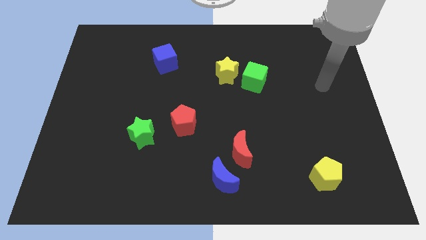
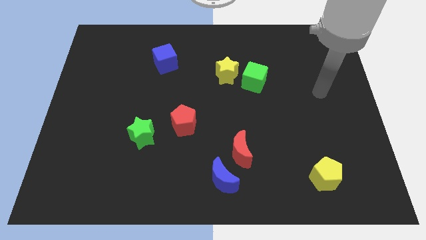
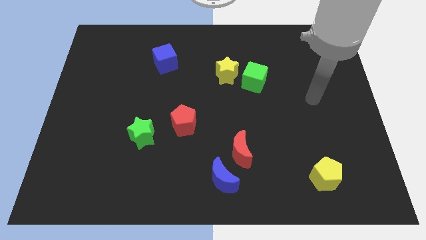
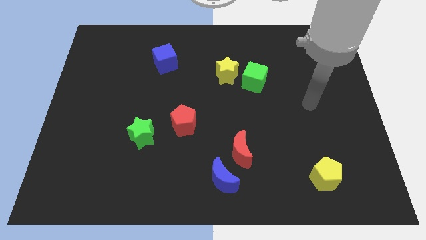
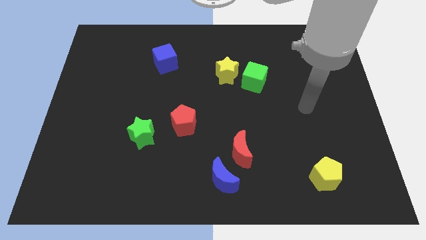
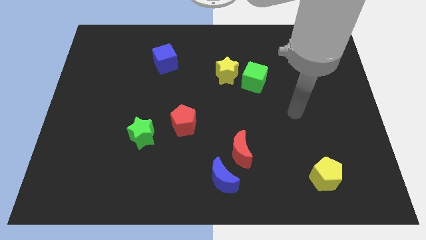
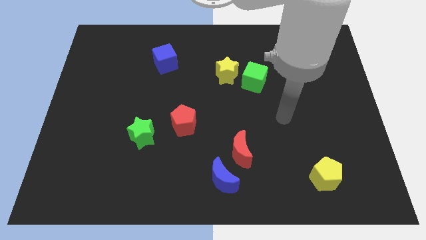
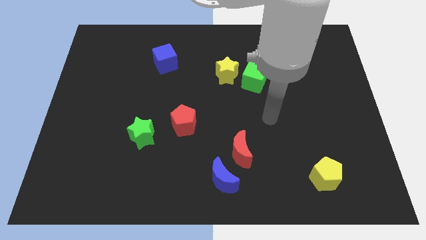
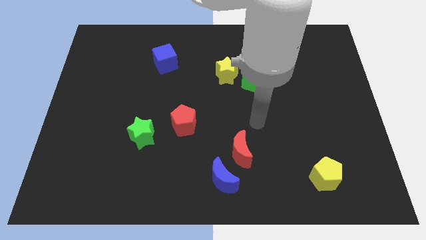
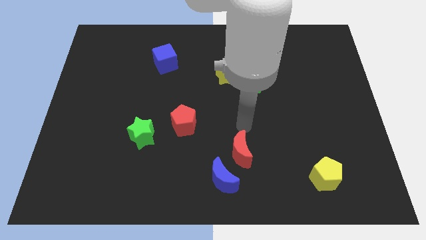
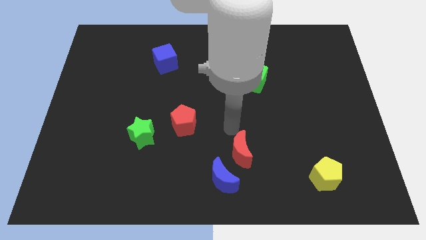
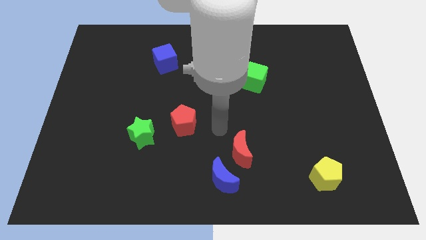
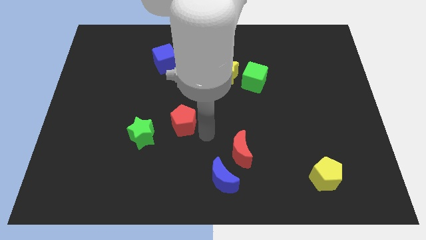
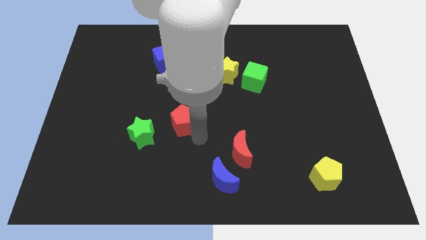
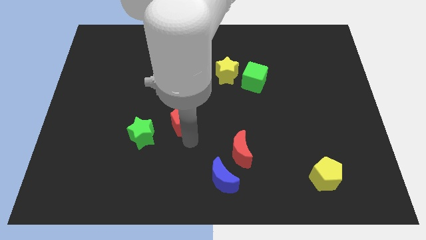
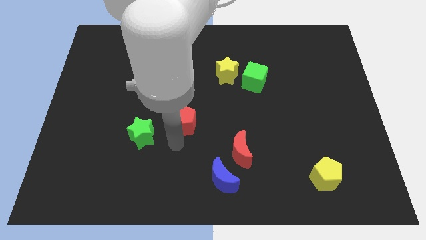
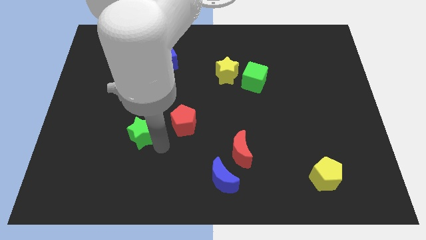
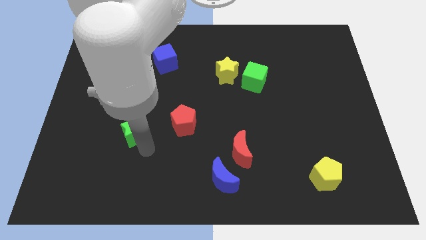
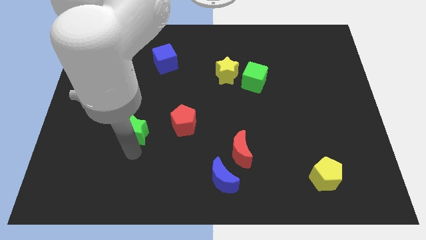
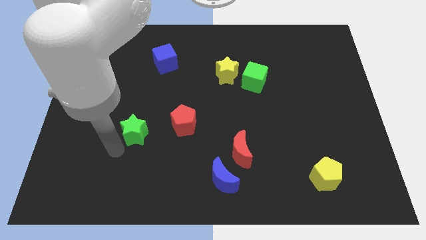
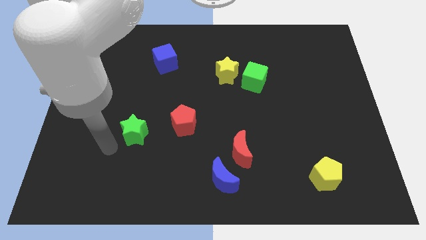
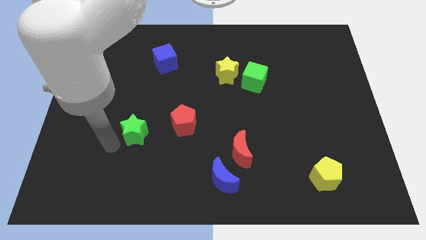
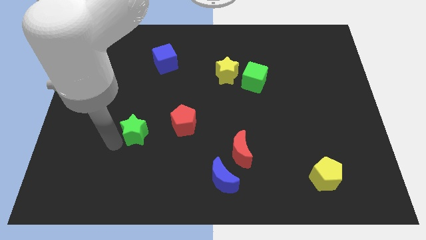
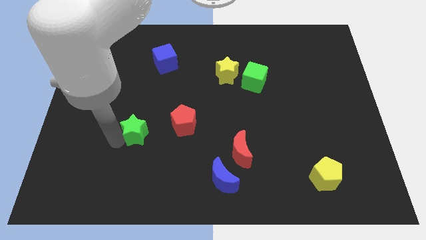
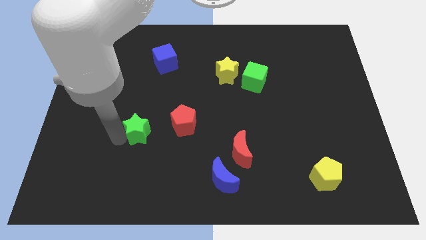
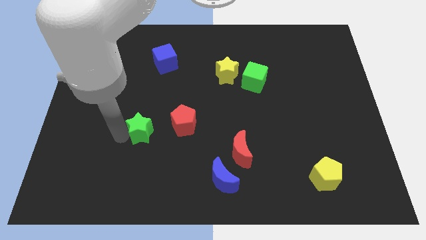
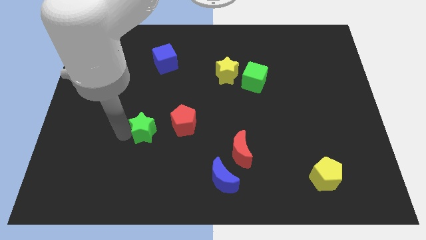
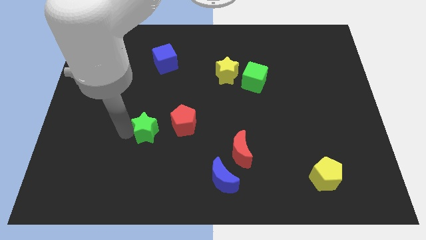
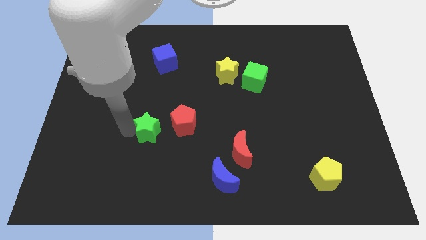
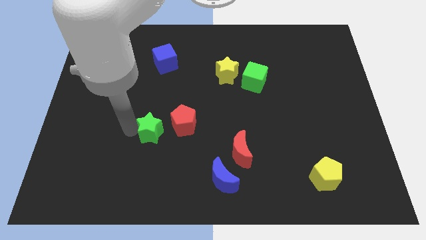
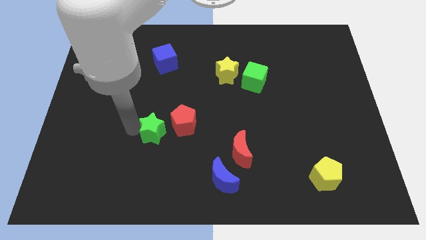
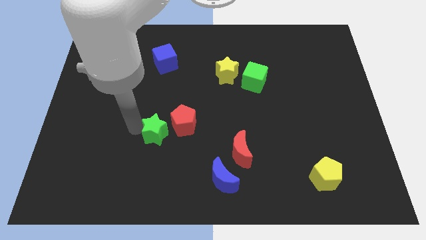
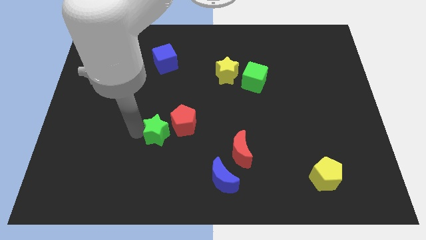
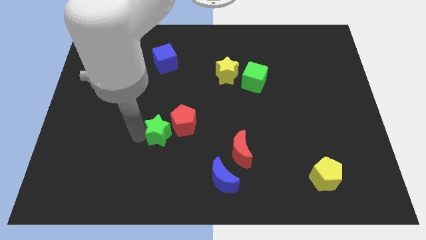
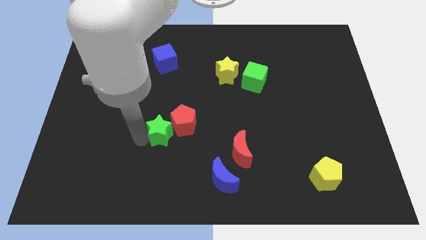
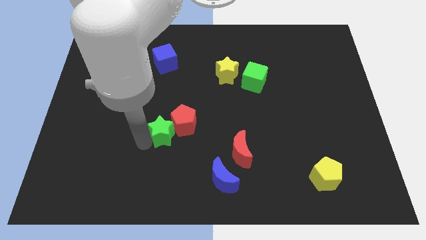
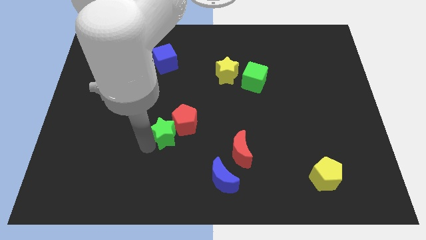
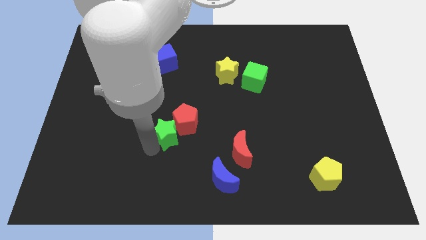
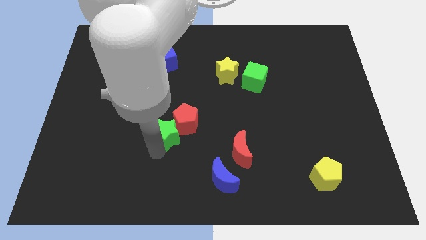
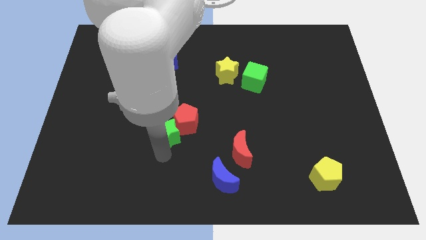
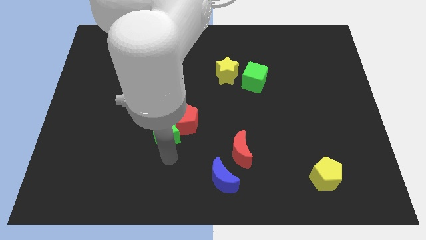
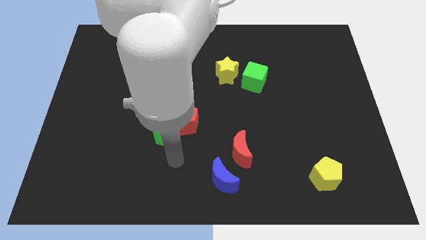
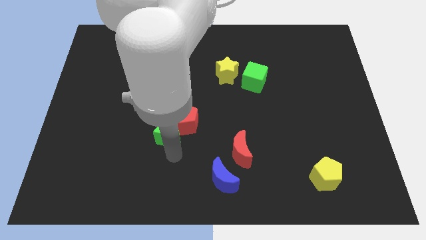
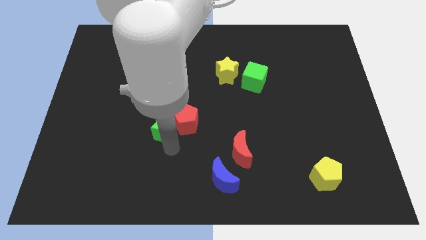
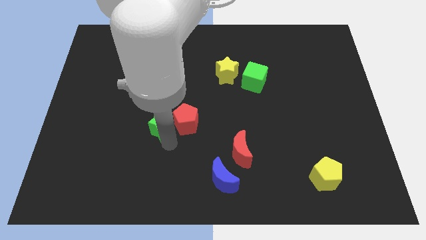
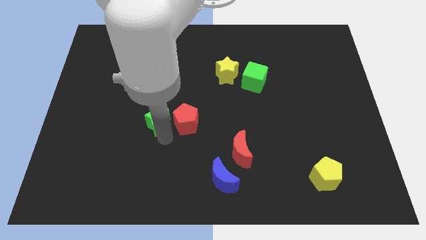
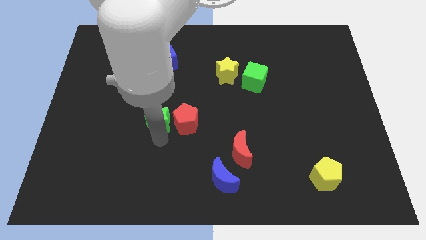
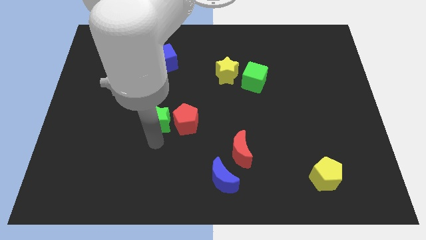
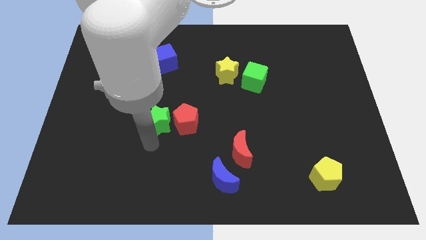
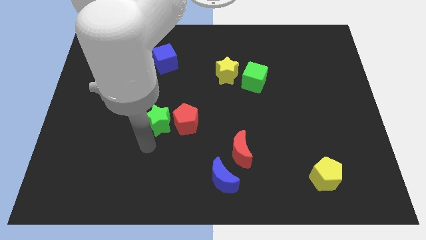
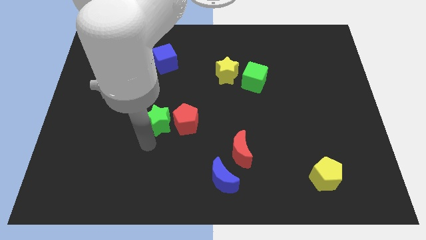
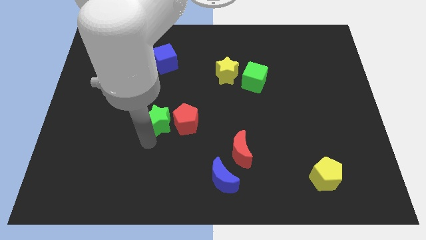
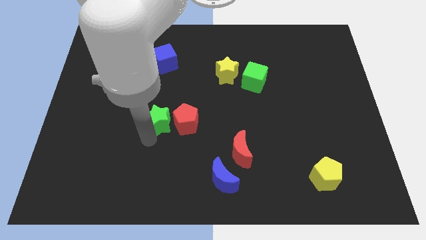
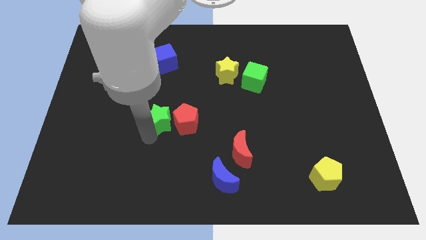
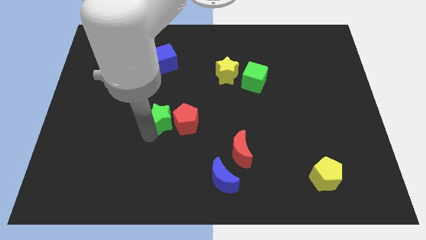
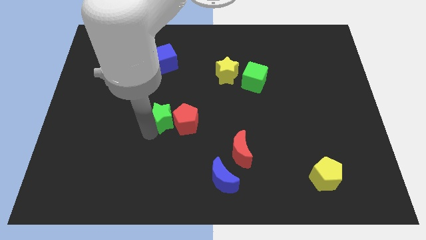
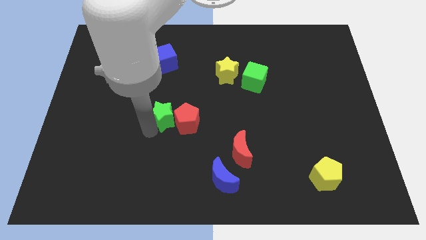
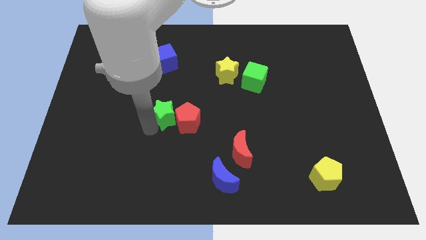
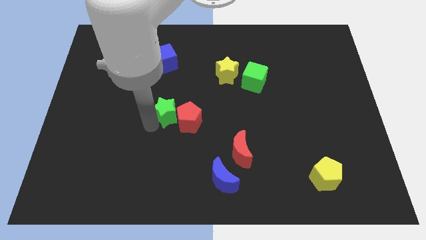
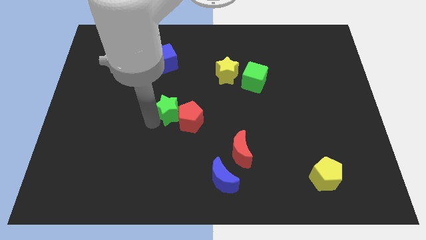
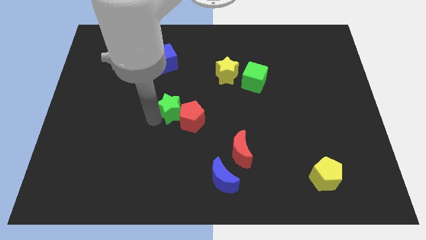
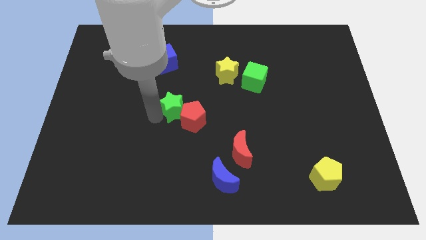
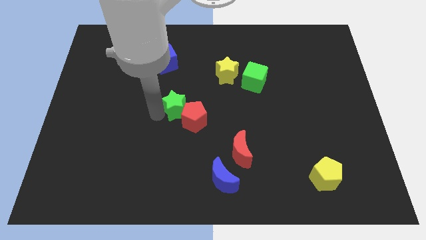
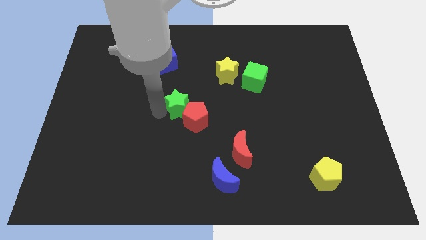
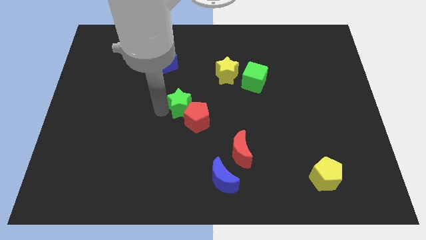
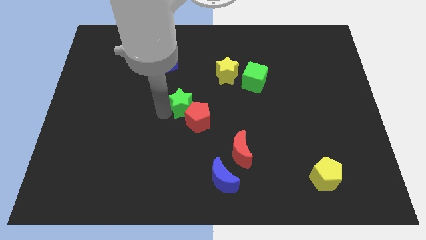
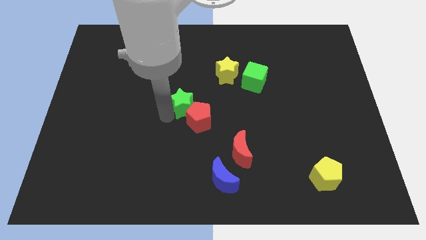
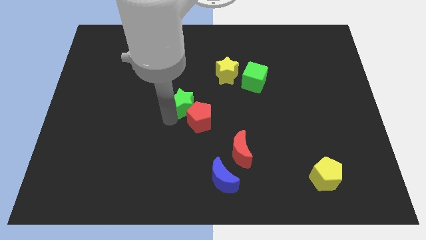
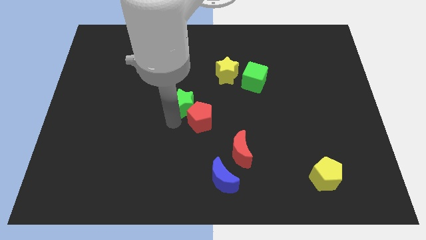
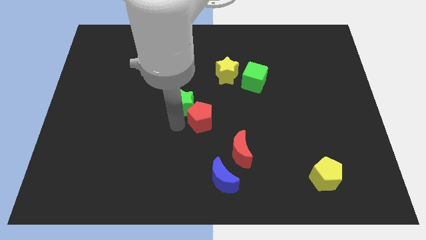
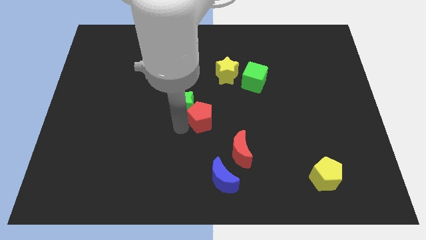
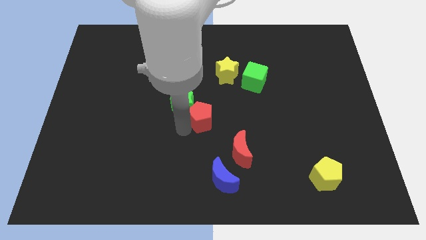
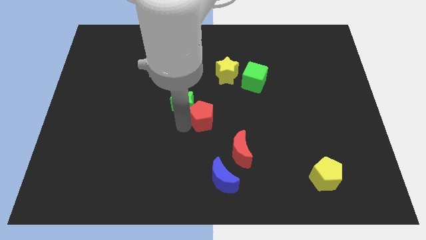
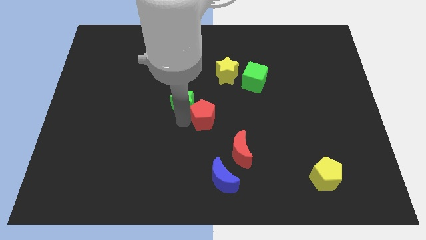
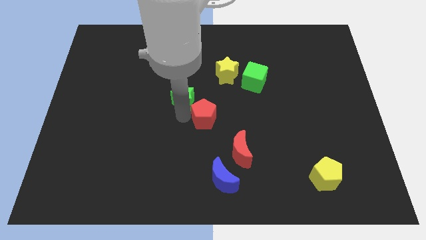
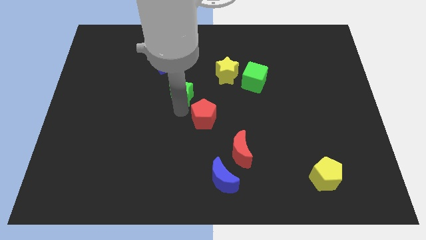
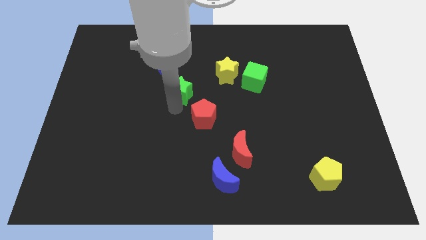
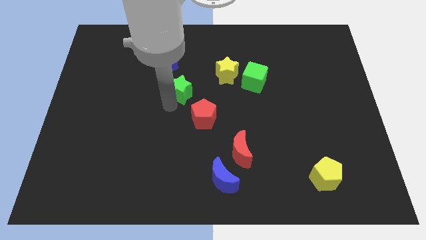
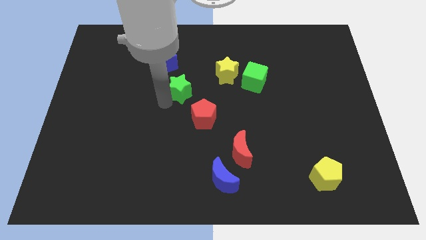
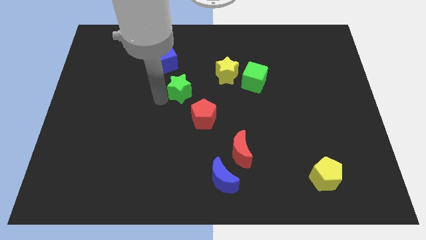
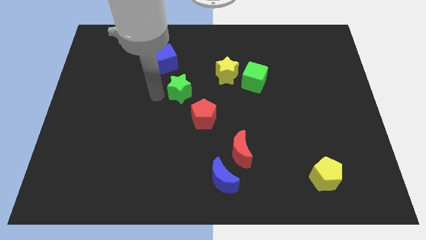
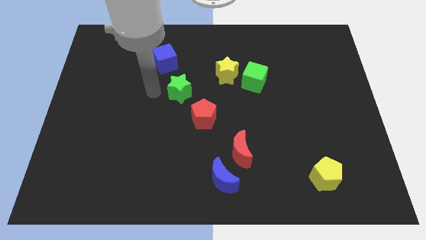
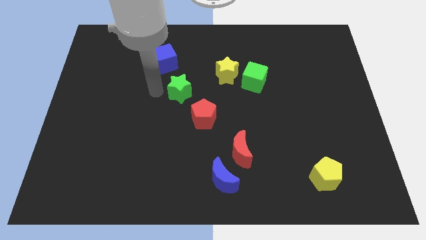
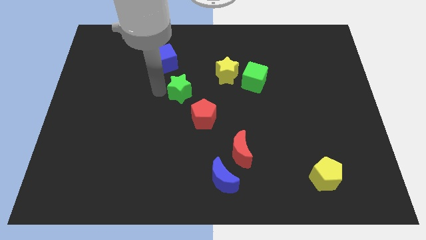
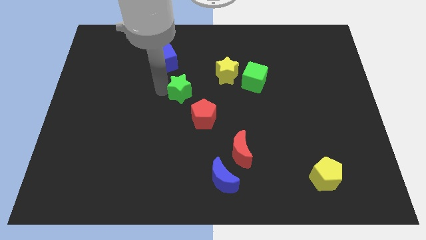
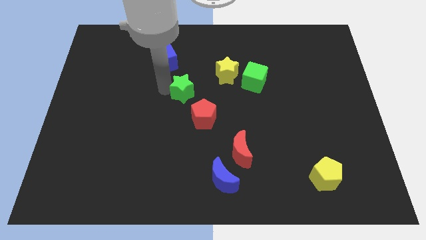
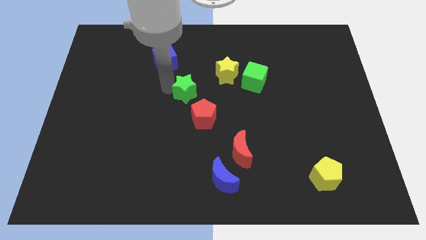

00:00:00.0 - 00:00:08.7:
push the green star diagonally down and to the left of the yellow star
